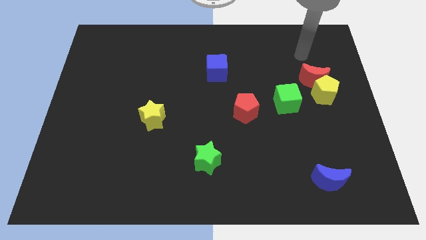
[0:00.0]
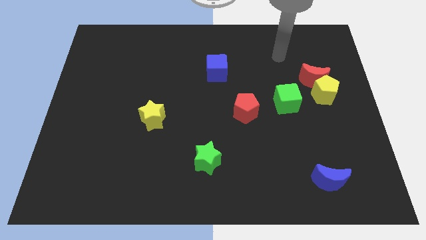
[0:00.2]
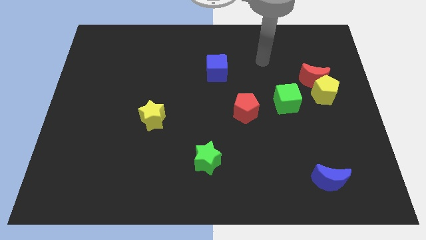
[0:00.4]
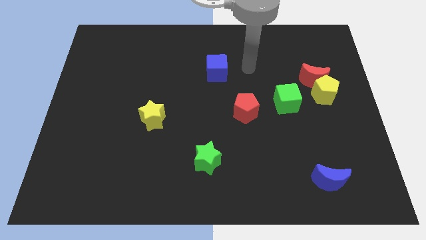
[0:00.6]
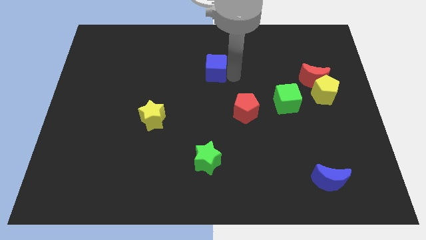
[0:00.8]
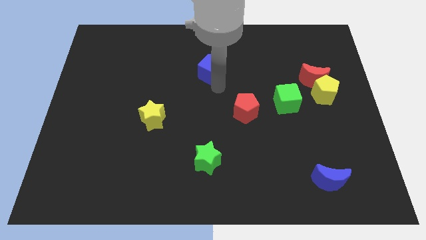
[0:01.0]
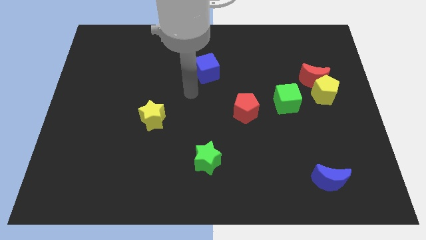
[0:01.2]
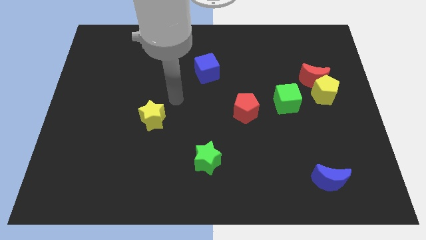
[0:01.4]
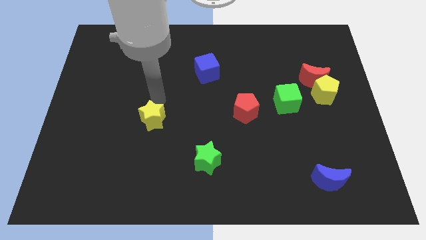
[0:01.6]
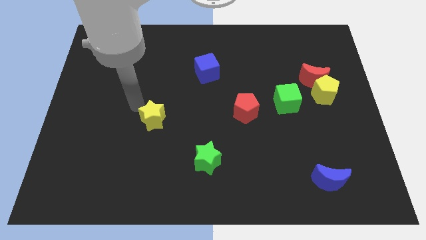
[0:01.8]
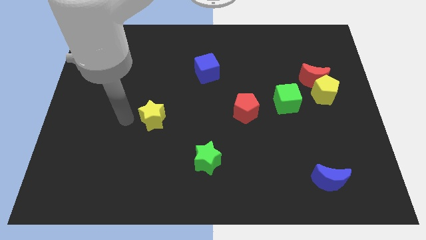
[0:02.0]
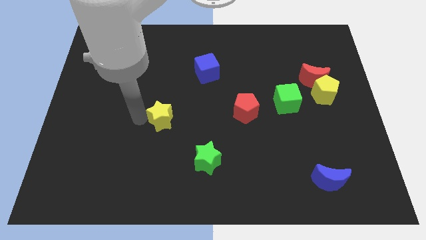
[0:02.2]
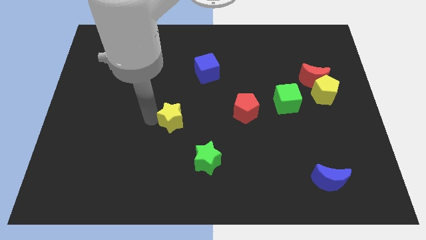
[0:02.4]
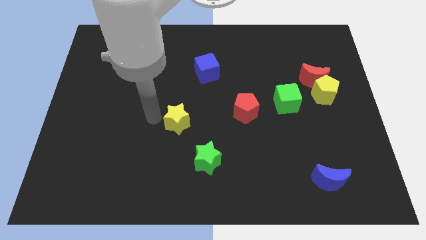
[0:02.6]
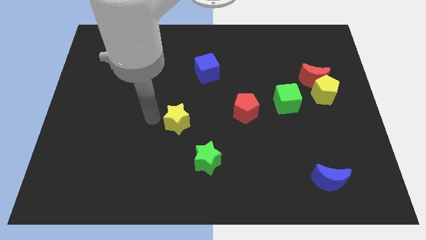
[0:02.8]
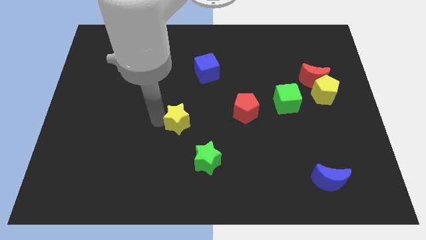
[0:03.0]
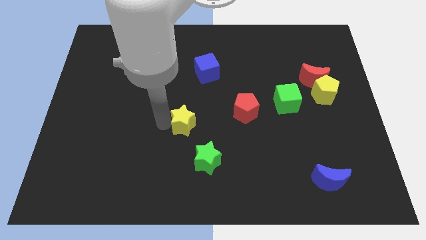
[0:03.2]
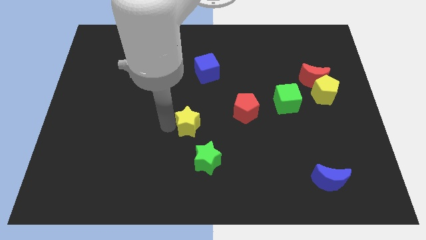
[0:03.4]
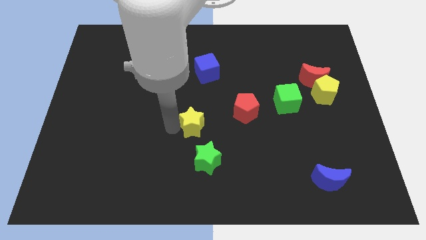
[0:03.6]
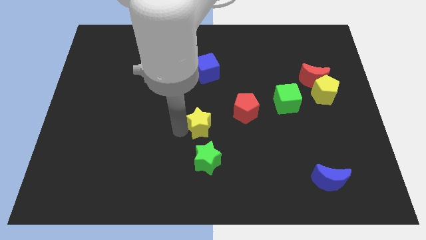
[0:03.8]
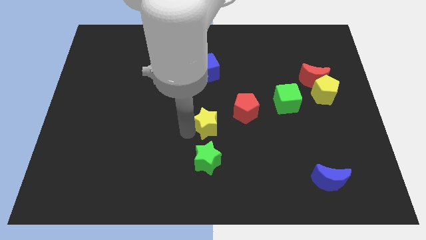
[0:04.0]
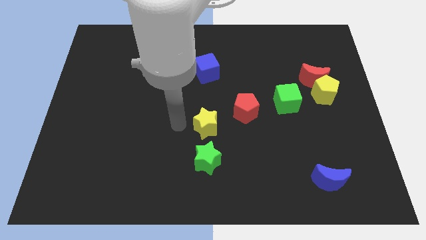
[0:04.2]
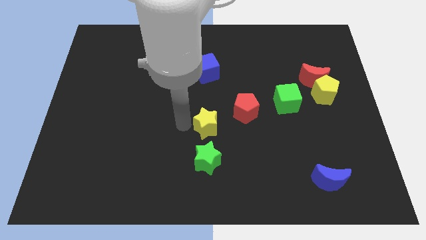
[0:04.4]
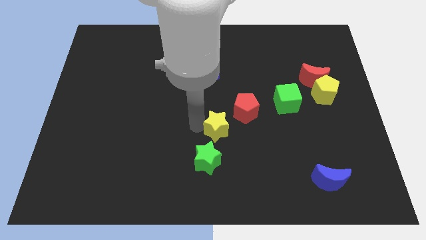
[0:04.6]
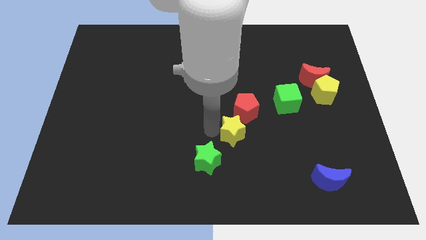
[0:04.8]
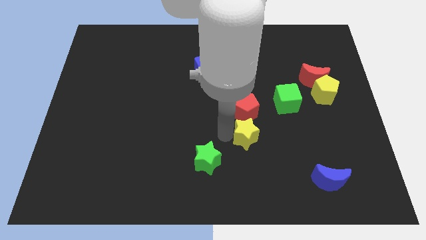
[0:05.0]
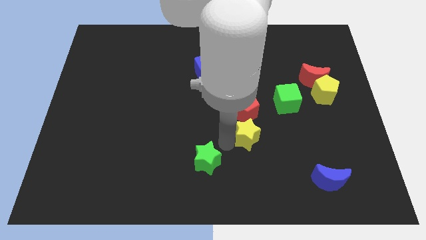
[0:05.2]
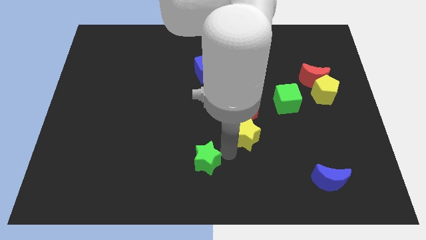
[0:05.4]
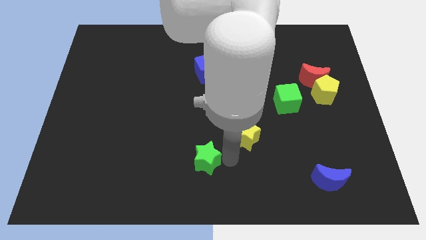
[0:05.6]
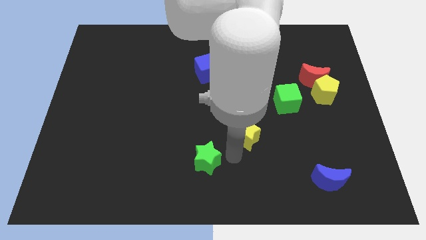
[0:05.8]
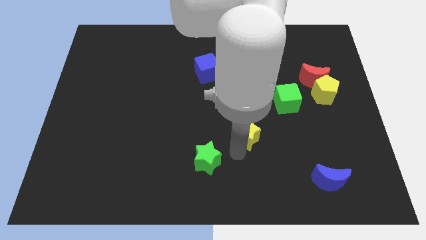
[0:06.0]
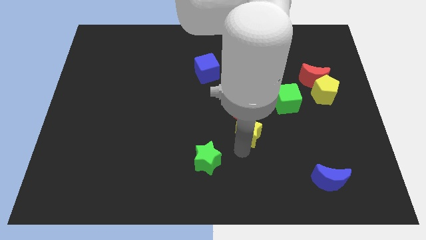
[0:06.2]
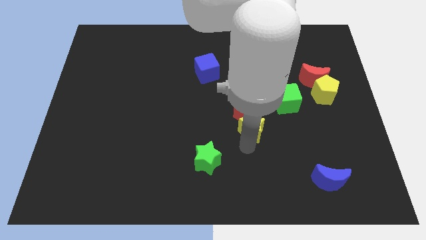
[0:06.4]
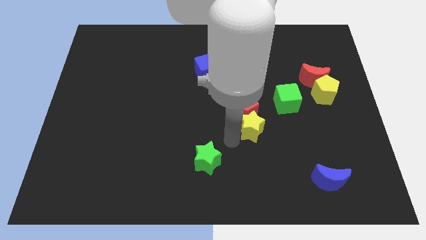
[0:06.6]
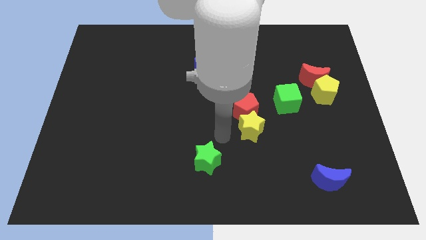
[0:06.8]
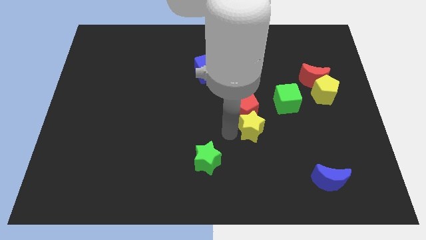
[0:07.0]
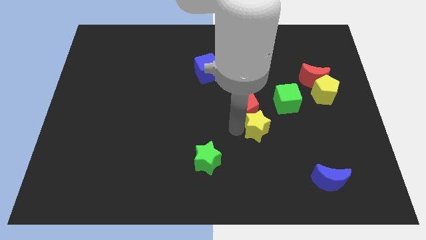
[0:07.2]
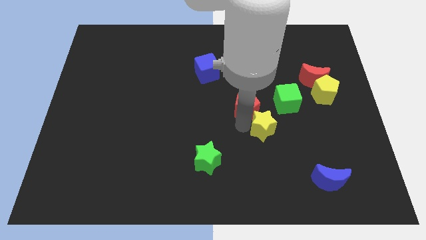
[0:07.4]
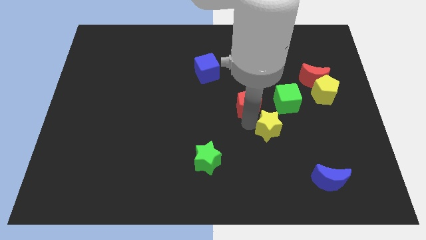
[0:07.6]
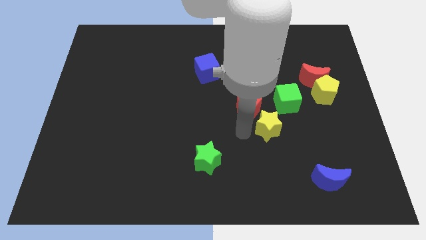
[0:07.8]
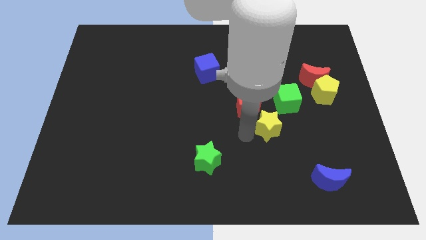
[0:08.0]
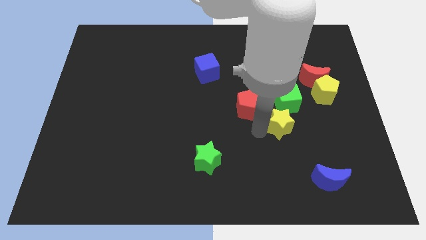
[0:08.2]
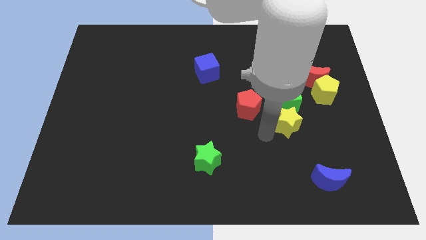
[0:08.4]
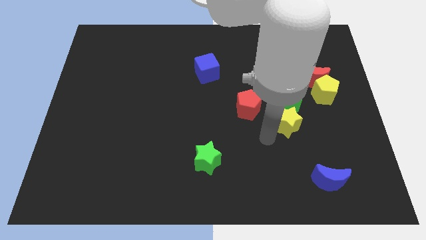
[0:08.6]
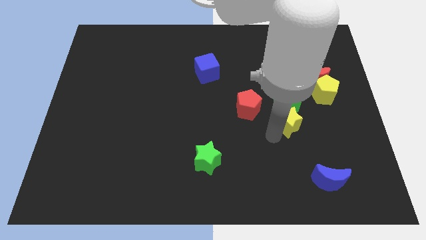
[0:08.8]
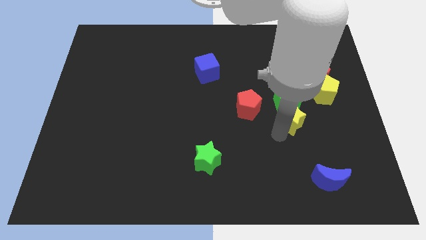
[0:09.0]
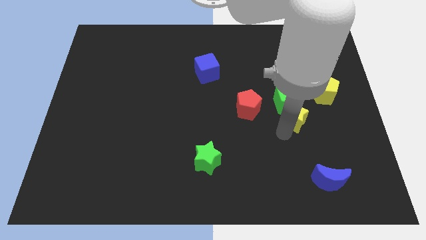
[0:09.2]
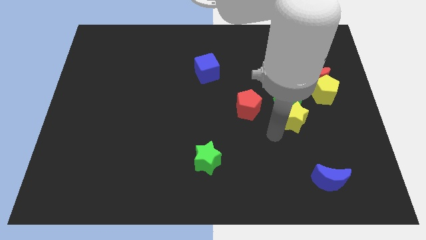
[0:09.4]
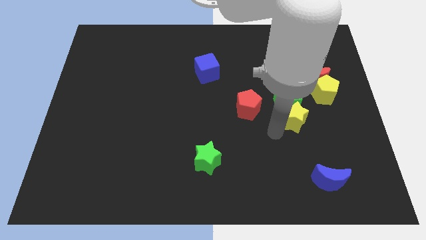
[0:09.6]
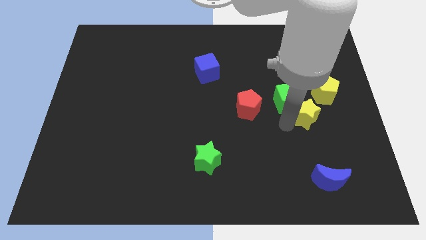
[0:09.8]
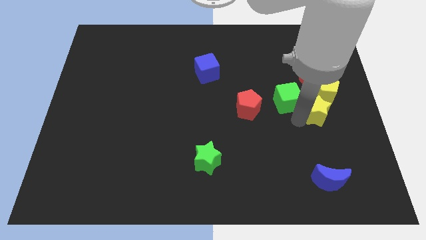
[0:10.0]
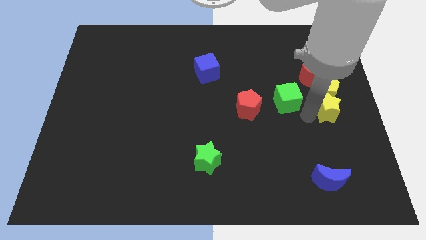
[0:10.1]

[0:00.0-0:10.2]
push the yellow star to the right side

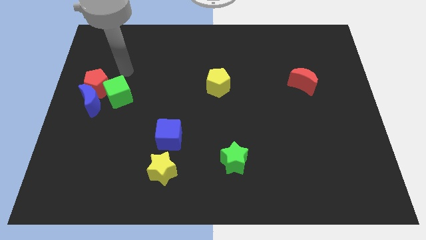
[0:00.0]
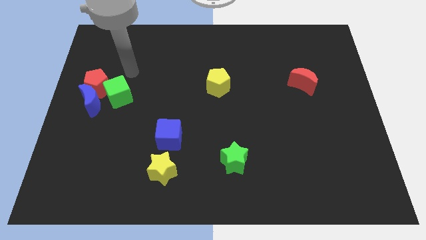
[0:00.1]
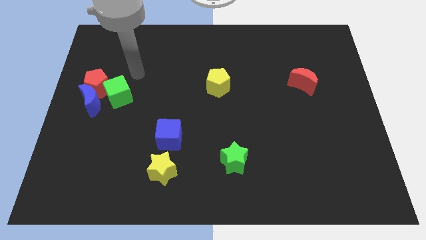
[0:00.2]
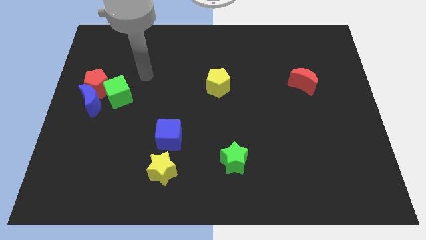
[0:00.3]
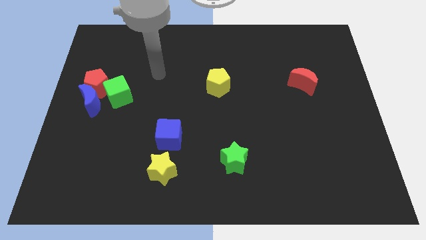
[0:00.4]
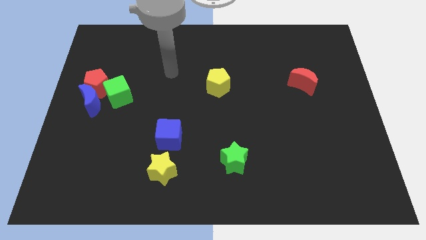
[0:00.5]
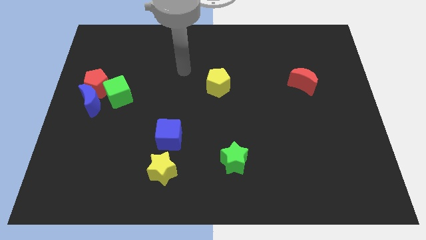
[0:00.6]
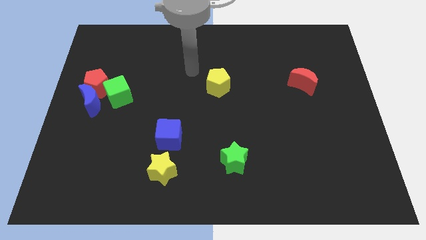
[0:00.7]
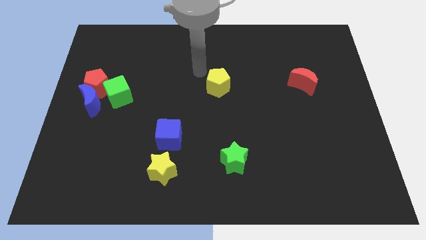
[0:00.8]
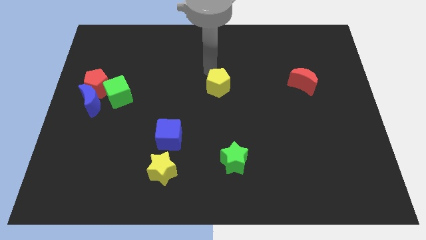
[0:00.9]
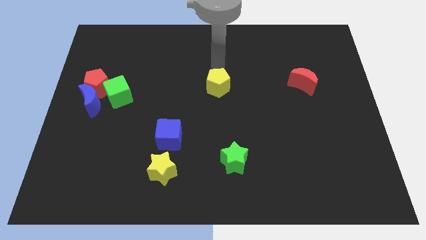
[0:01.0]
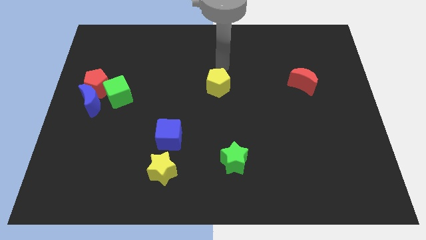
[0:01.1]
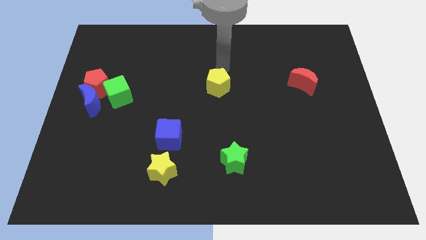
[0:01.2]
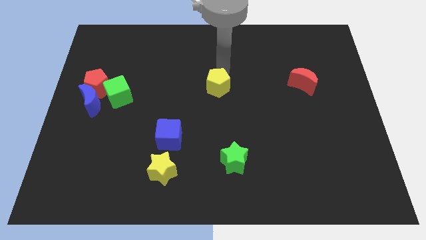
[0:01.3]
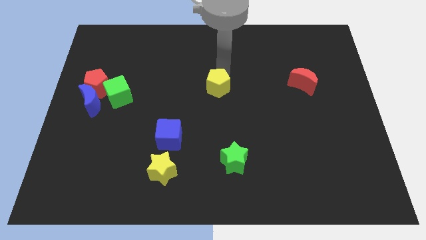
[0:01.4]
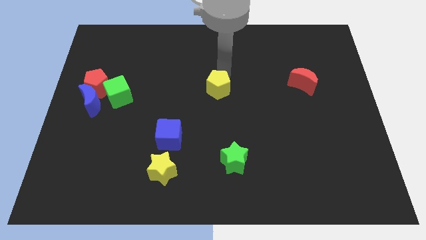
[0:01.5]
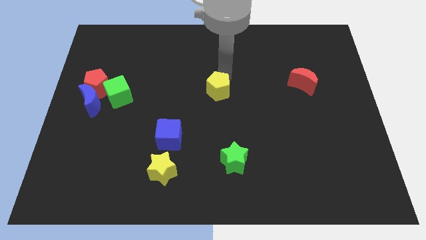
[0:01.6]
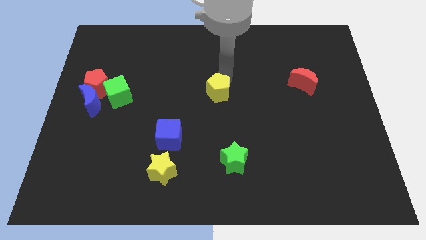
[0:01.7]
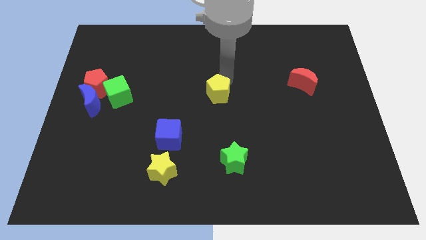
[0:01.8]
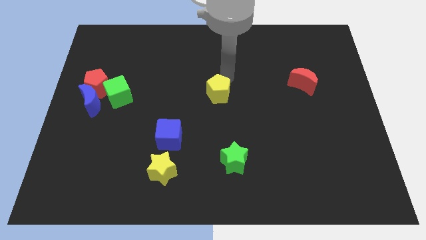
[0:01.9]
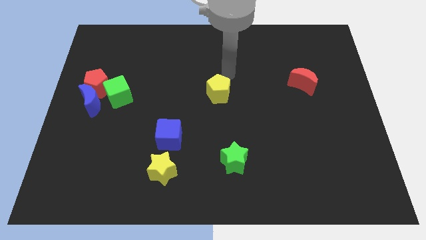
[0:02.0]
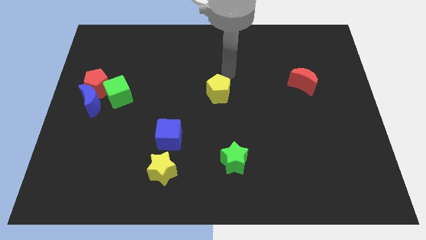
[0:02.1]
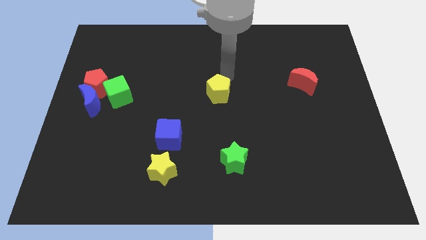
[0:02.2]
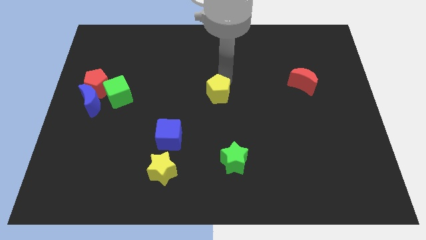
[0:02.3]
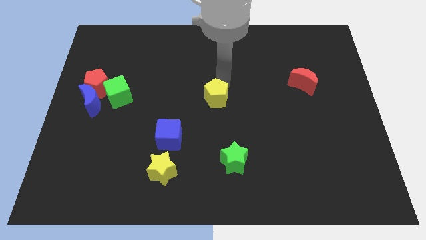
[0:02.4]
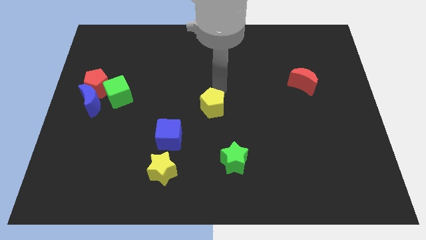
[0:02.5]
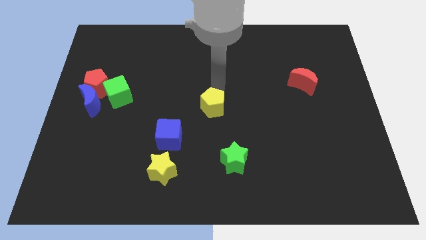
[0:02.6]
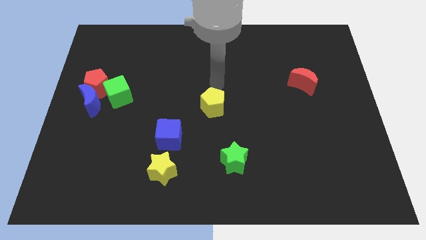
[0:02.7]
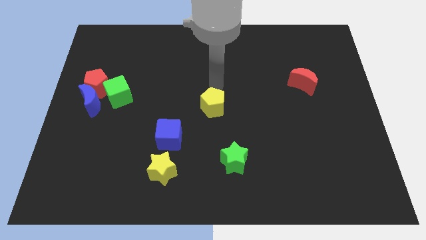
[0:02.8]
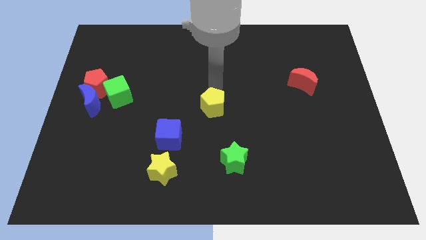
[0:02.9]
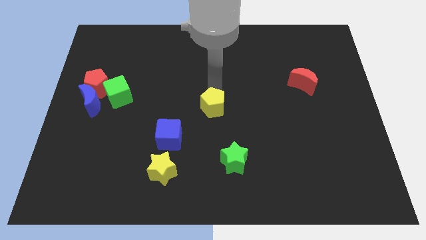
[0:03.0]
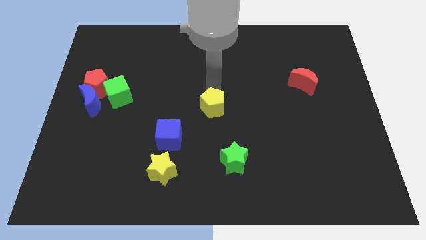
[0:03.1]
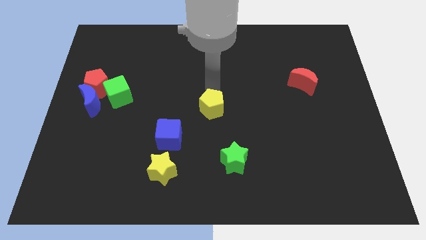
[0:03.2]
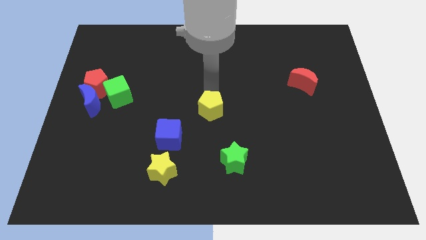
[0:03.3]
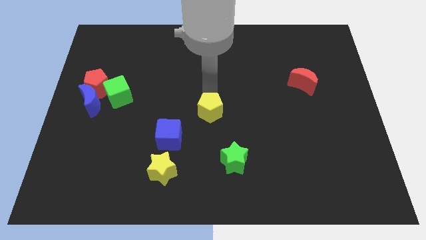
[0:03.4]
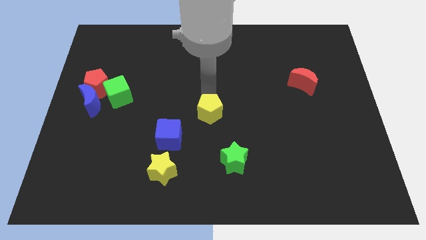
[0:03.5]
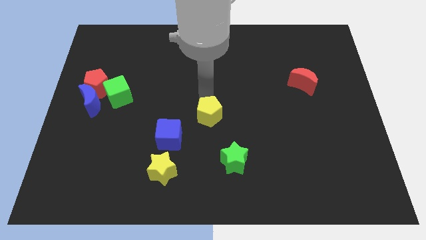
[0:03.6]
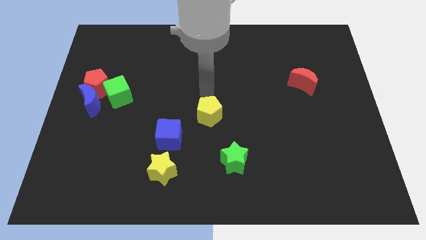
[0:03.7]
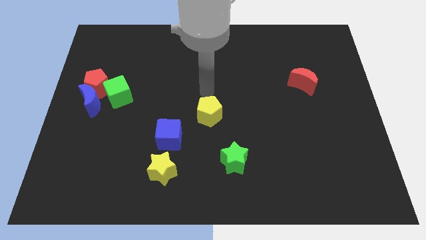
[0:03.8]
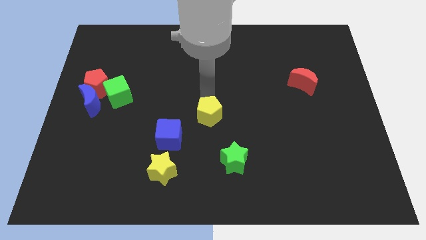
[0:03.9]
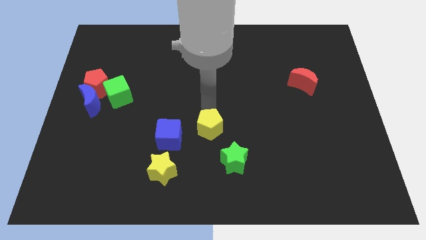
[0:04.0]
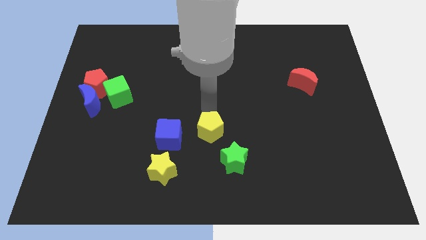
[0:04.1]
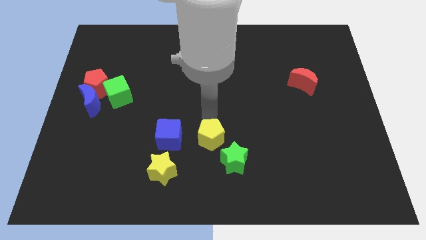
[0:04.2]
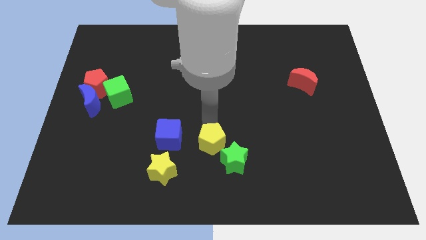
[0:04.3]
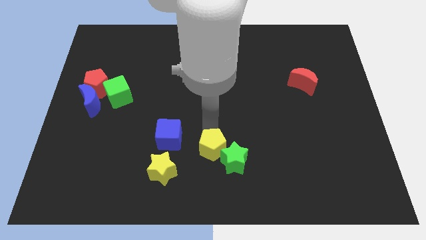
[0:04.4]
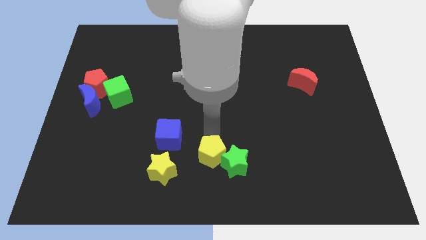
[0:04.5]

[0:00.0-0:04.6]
move the yellow pentagon to the bottom side
